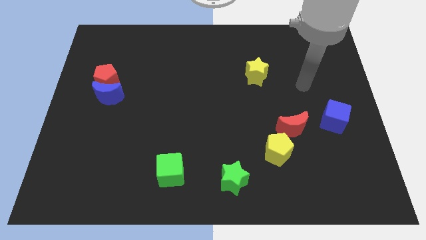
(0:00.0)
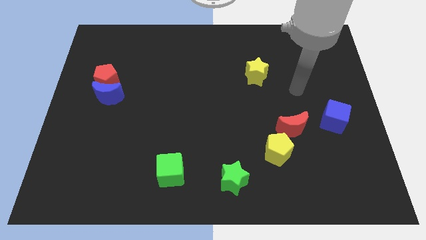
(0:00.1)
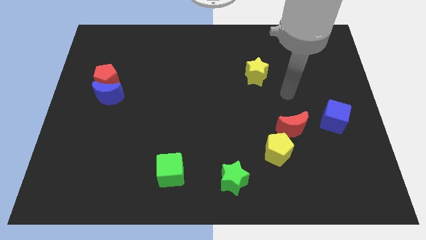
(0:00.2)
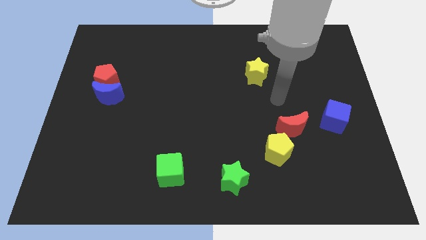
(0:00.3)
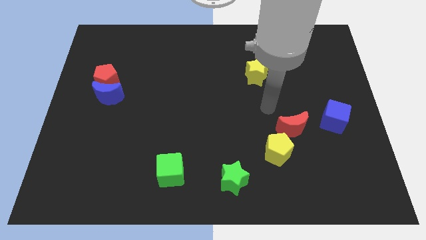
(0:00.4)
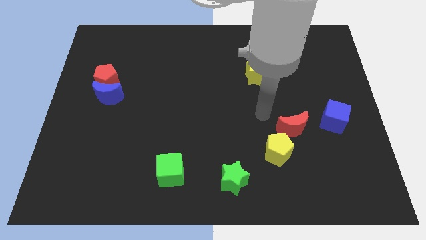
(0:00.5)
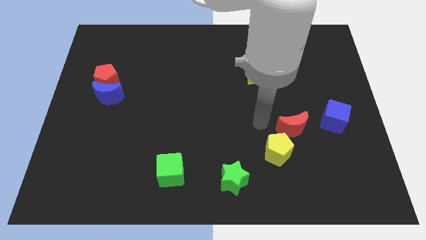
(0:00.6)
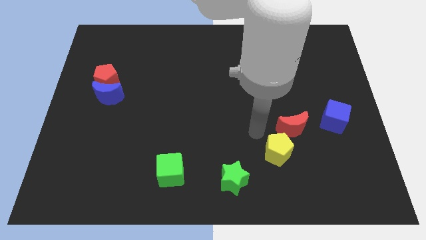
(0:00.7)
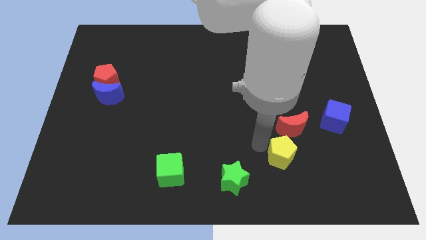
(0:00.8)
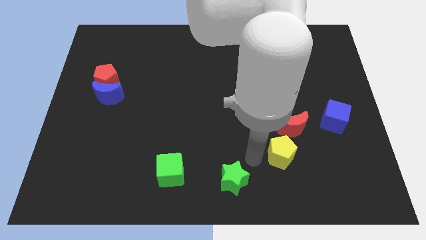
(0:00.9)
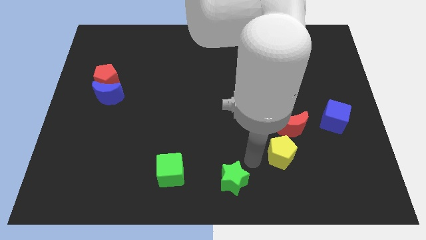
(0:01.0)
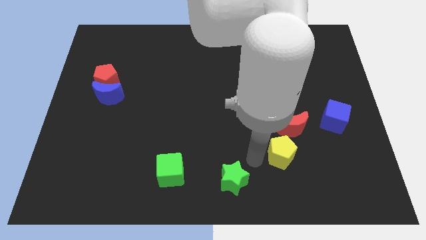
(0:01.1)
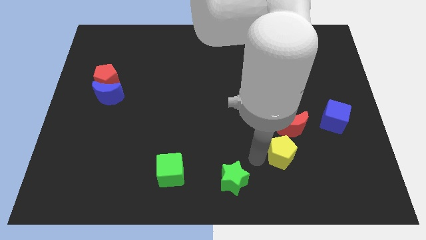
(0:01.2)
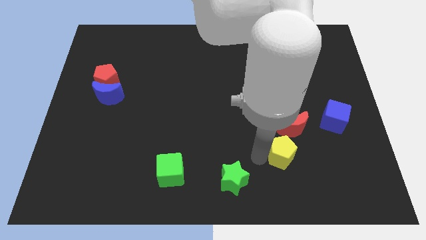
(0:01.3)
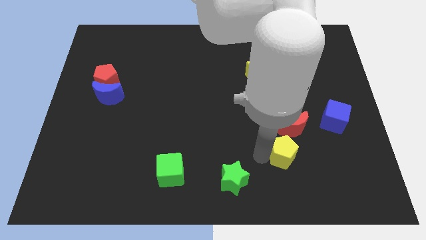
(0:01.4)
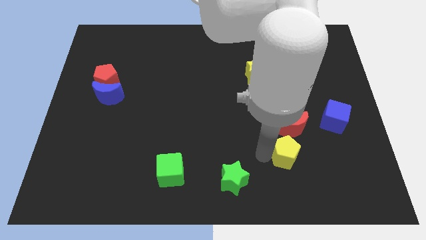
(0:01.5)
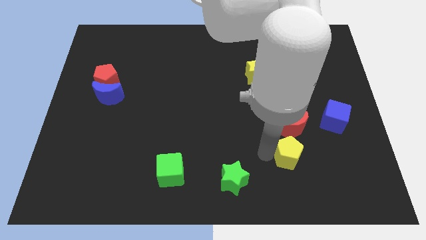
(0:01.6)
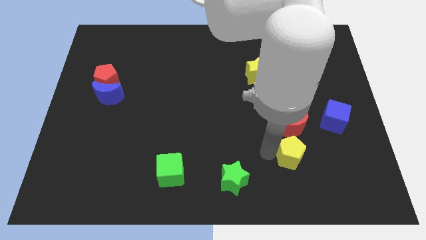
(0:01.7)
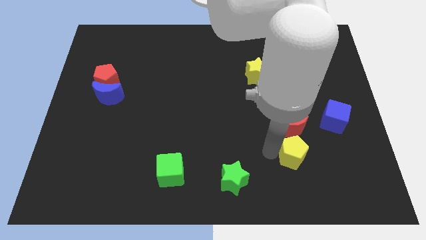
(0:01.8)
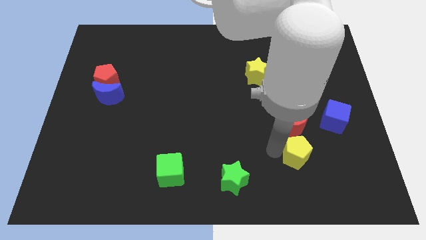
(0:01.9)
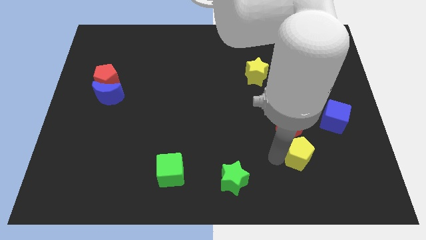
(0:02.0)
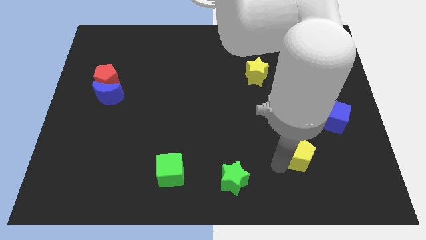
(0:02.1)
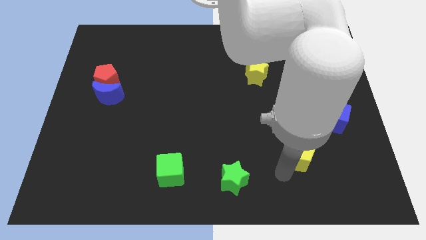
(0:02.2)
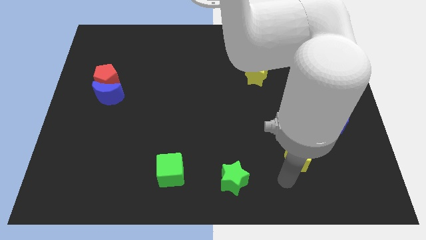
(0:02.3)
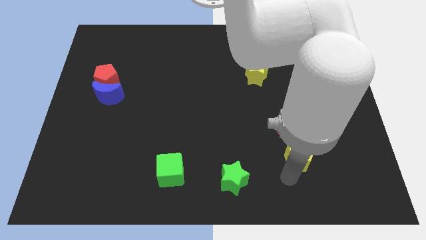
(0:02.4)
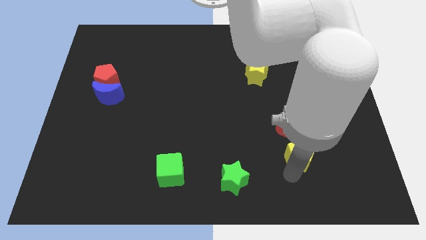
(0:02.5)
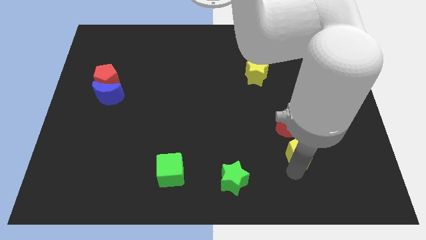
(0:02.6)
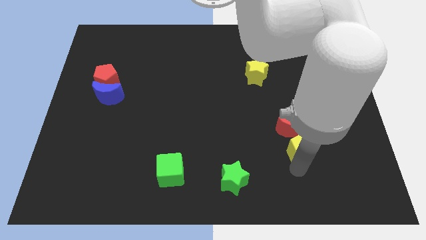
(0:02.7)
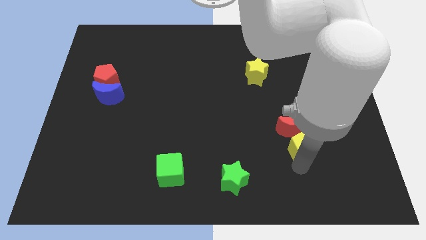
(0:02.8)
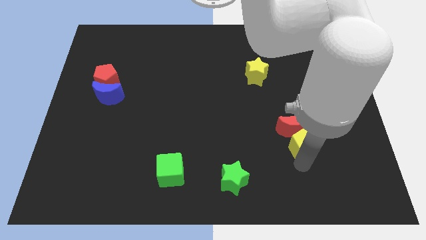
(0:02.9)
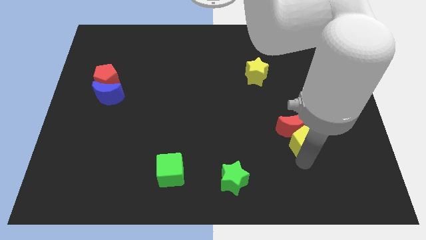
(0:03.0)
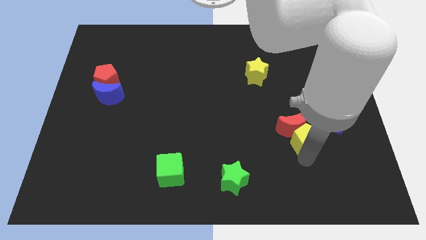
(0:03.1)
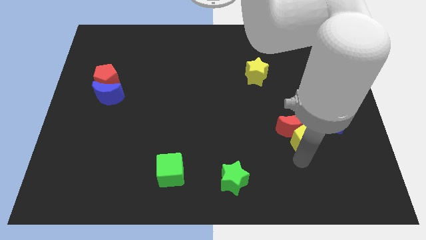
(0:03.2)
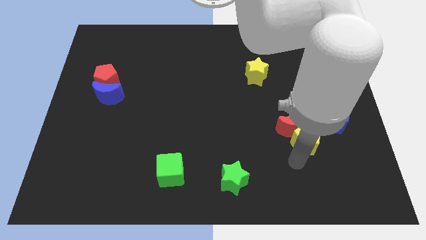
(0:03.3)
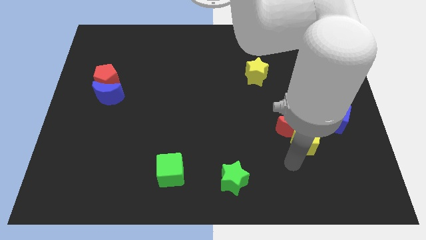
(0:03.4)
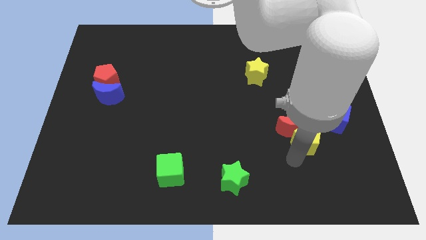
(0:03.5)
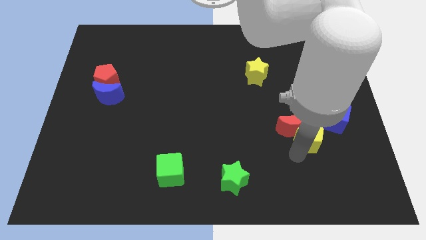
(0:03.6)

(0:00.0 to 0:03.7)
slide the yellow pentagon slightly up and right

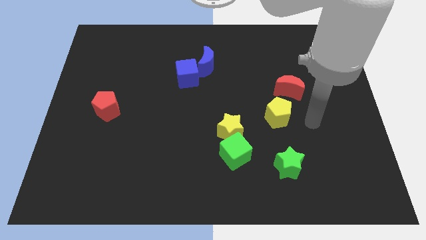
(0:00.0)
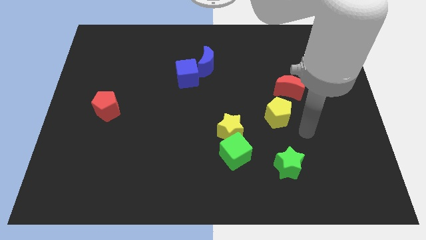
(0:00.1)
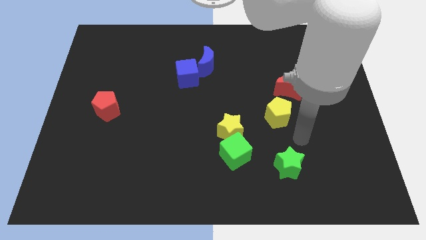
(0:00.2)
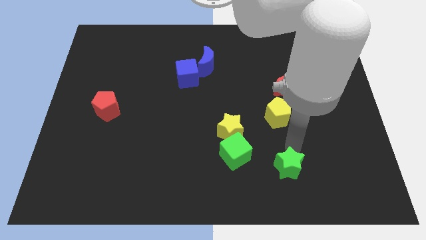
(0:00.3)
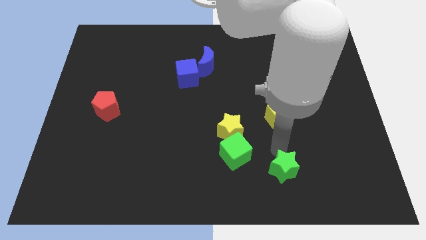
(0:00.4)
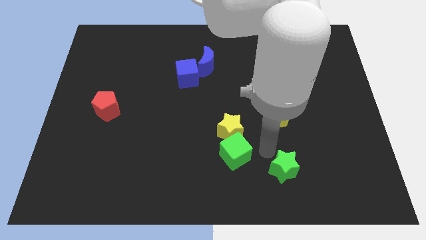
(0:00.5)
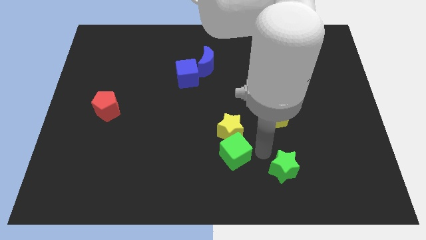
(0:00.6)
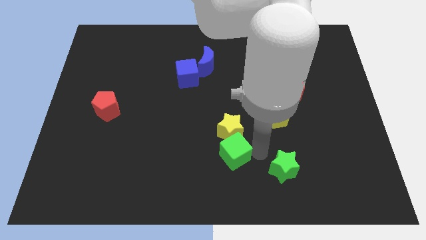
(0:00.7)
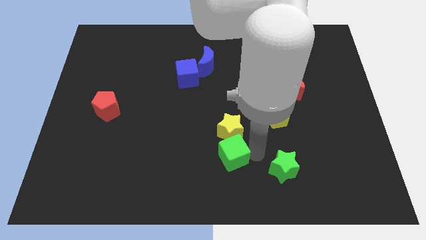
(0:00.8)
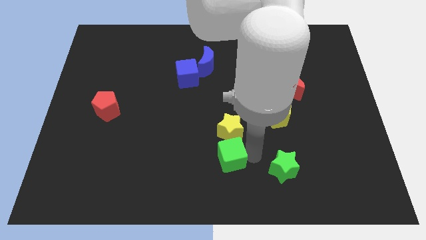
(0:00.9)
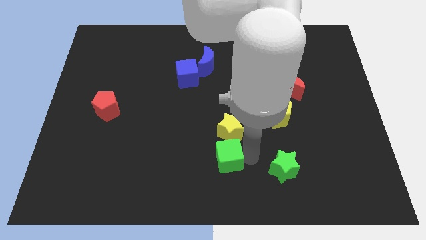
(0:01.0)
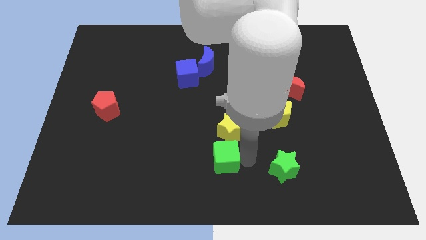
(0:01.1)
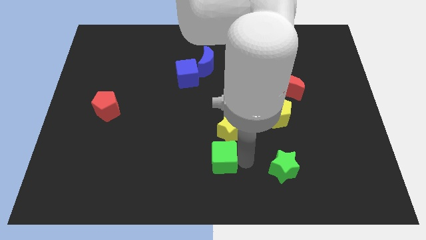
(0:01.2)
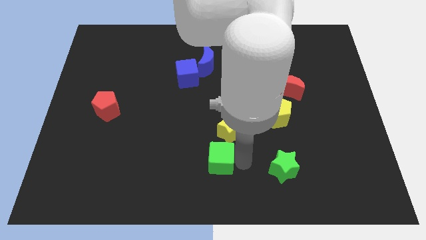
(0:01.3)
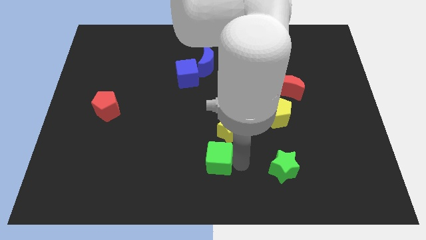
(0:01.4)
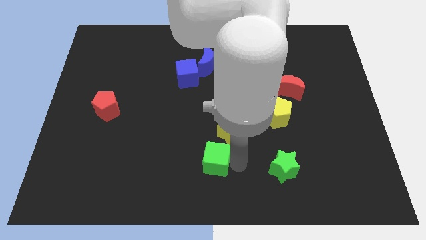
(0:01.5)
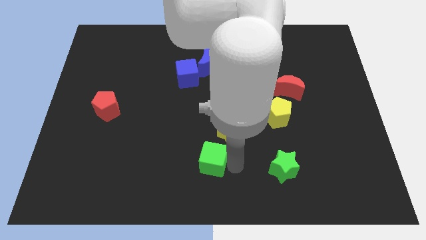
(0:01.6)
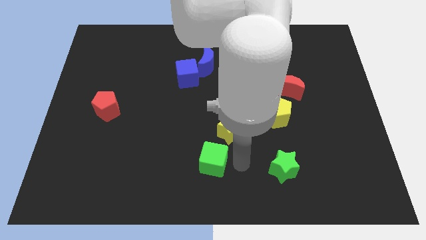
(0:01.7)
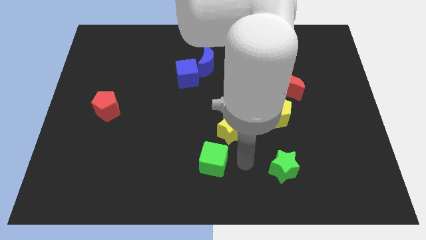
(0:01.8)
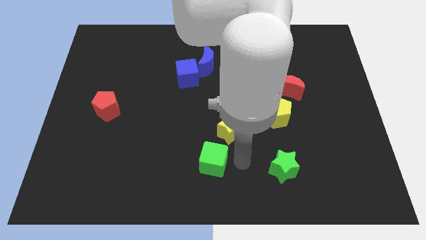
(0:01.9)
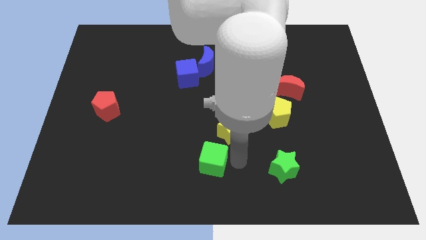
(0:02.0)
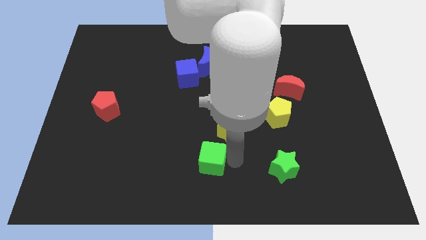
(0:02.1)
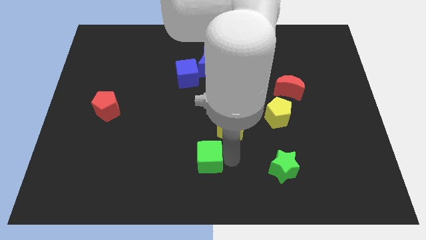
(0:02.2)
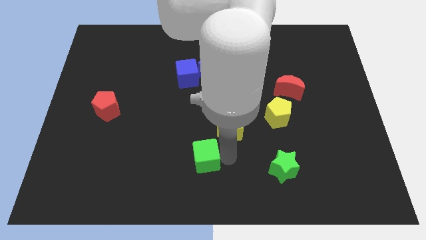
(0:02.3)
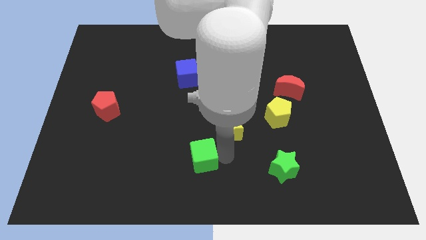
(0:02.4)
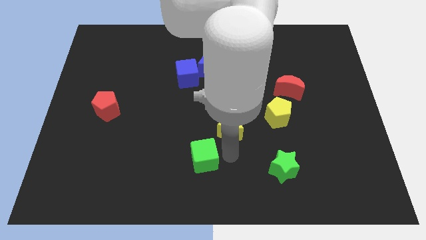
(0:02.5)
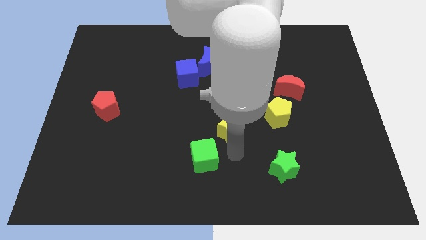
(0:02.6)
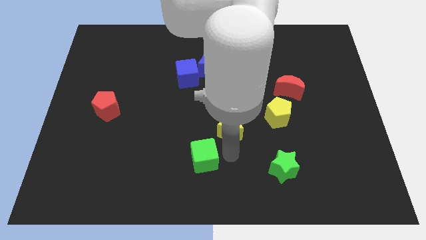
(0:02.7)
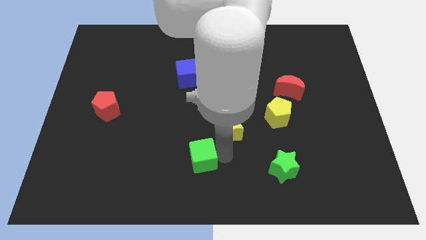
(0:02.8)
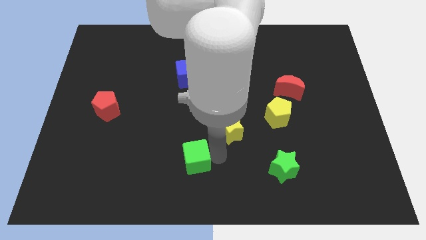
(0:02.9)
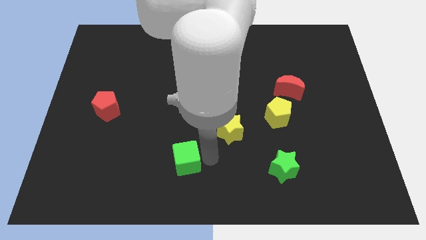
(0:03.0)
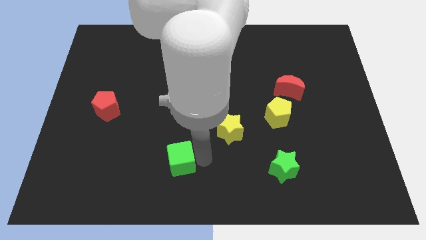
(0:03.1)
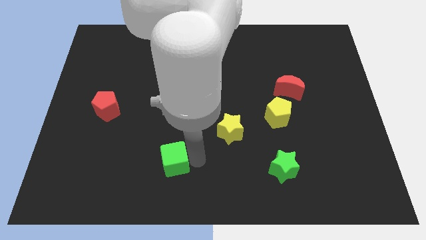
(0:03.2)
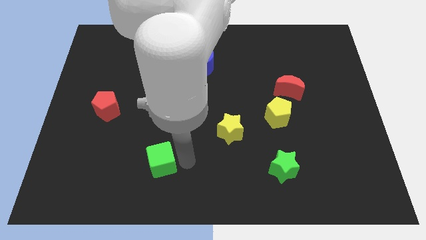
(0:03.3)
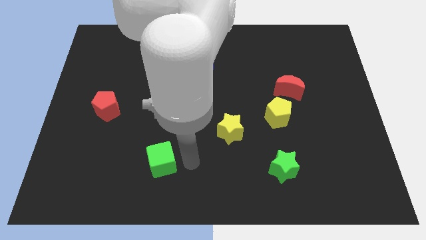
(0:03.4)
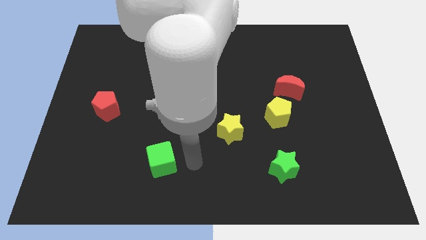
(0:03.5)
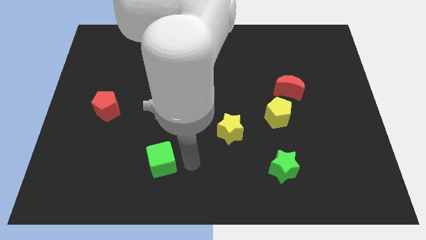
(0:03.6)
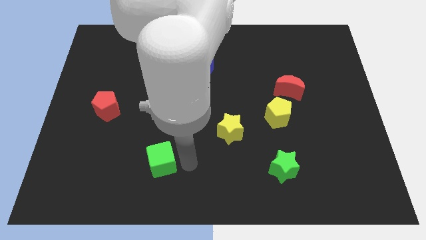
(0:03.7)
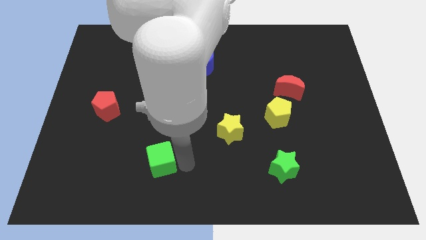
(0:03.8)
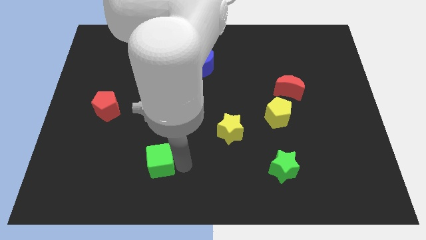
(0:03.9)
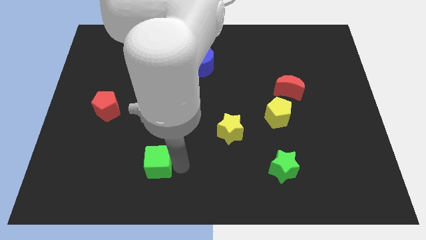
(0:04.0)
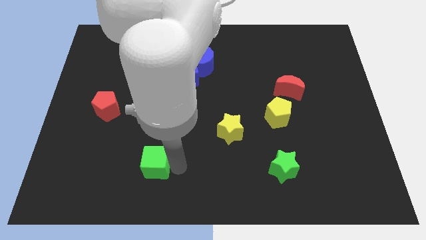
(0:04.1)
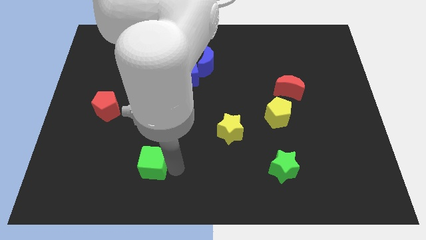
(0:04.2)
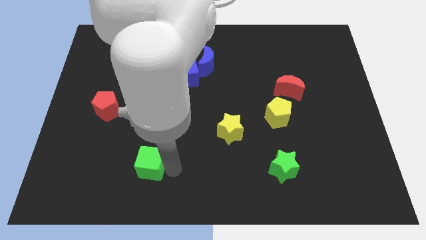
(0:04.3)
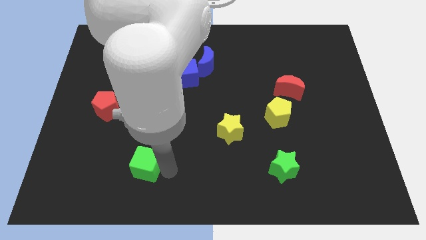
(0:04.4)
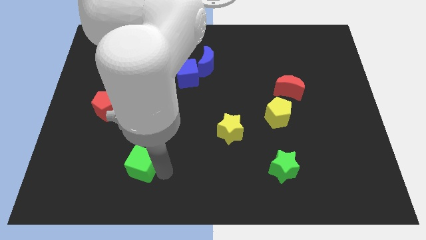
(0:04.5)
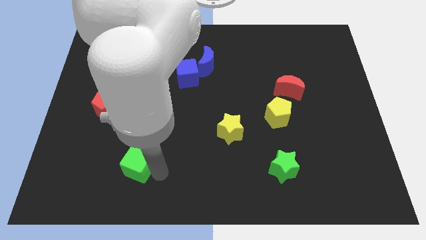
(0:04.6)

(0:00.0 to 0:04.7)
slide the green cube to the left
